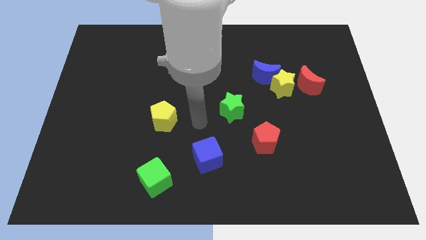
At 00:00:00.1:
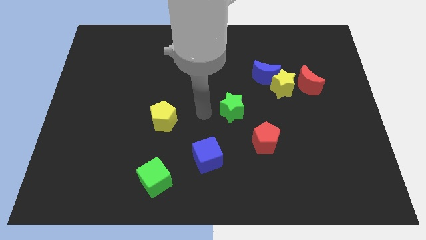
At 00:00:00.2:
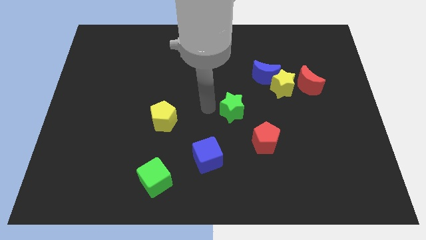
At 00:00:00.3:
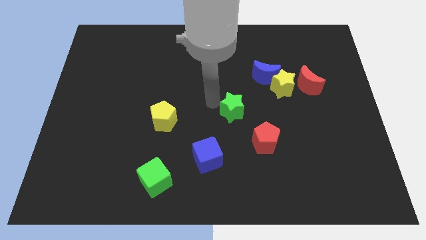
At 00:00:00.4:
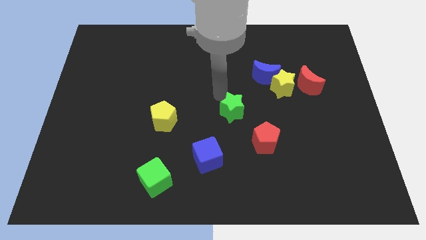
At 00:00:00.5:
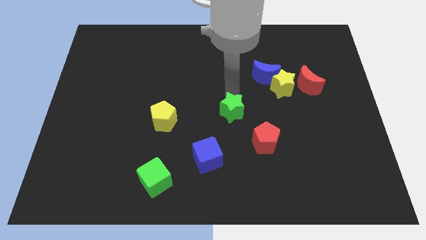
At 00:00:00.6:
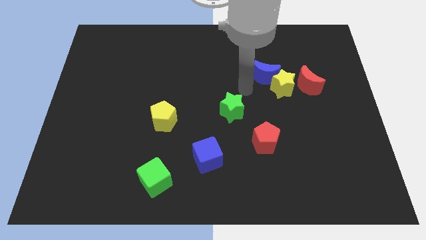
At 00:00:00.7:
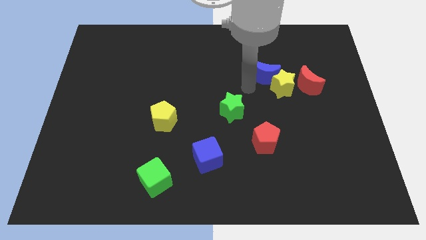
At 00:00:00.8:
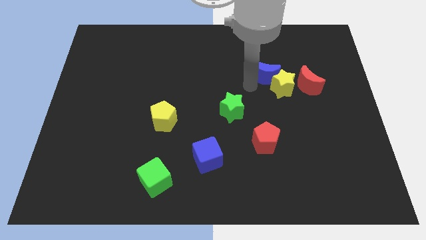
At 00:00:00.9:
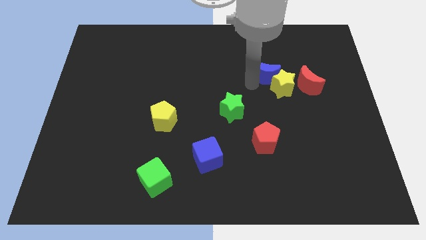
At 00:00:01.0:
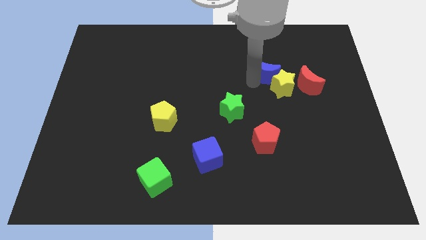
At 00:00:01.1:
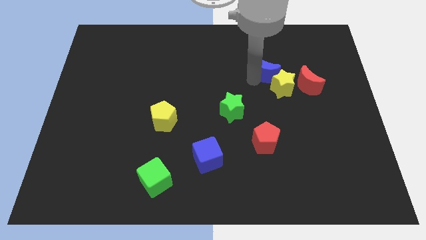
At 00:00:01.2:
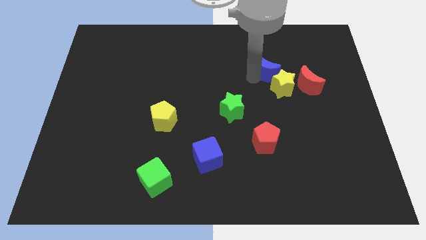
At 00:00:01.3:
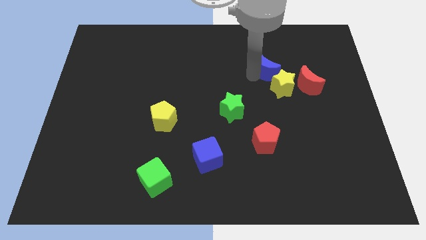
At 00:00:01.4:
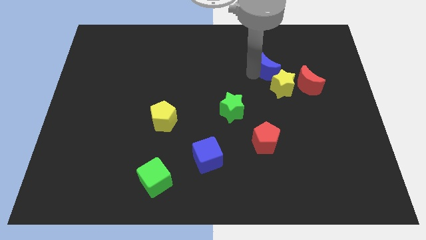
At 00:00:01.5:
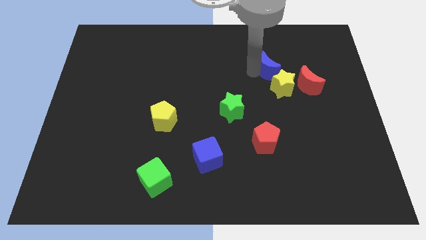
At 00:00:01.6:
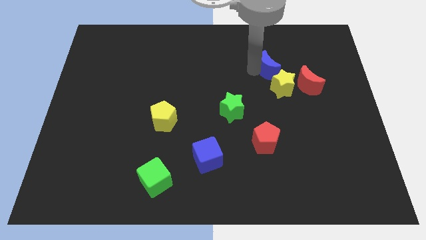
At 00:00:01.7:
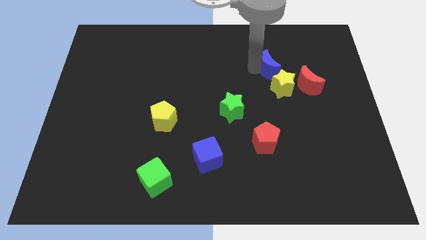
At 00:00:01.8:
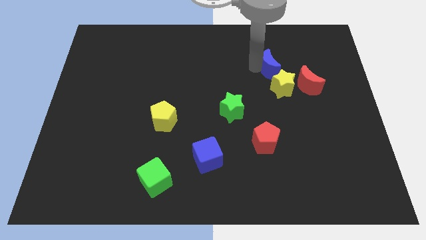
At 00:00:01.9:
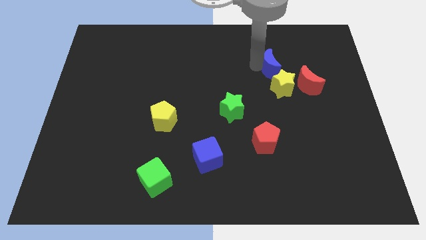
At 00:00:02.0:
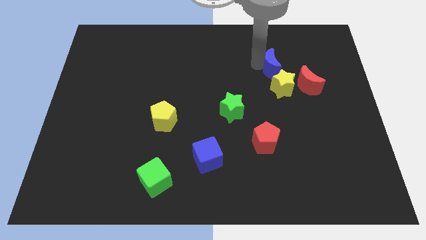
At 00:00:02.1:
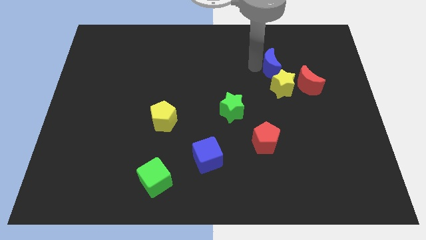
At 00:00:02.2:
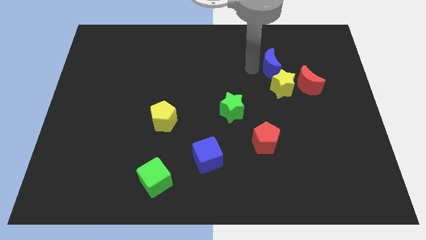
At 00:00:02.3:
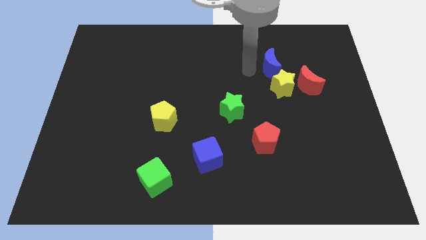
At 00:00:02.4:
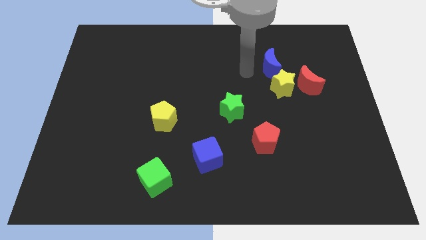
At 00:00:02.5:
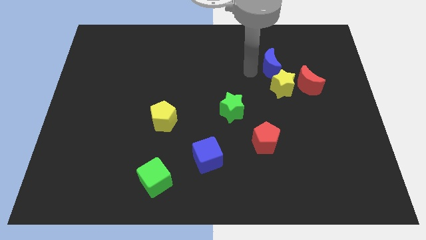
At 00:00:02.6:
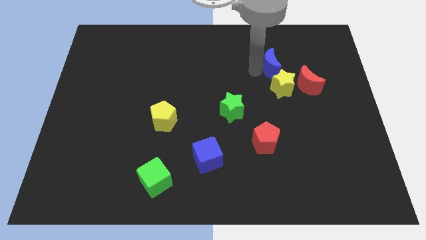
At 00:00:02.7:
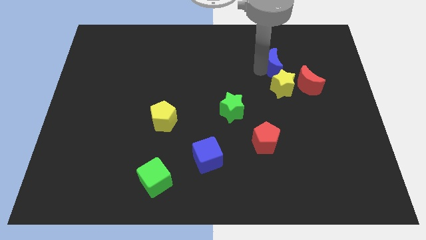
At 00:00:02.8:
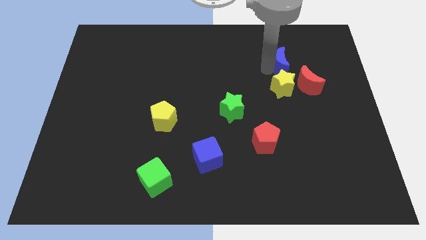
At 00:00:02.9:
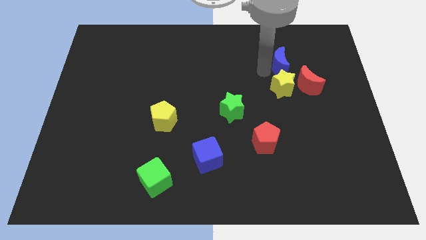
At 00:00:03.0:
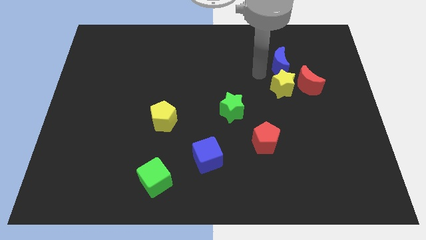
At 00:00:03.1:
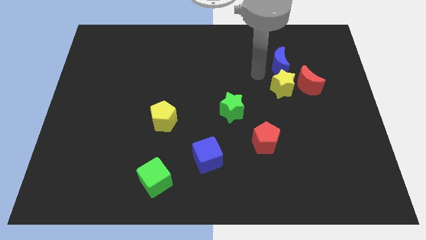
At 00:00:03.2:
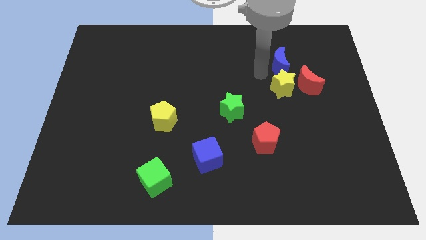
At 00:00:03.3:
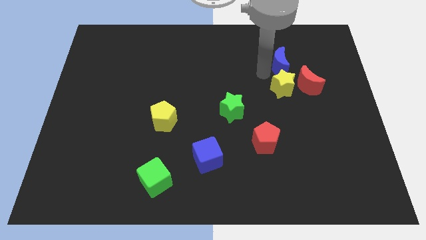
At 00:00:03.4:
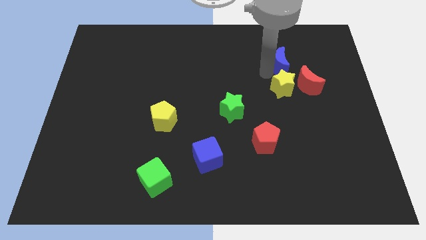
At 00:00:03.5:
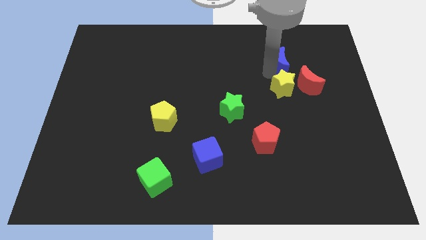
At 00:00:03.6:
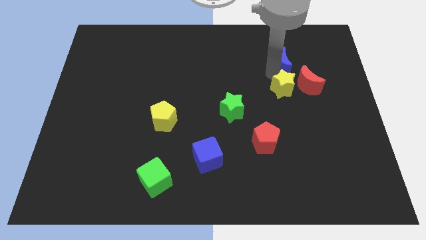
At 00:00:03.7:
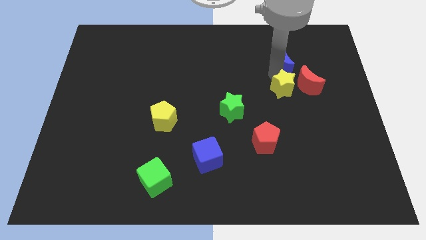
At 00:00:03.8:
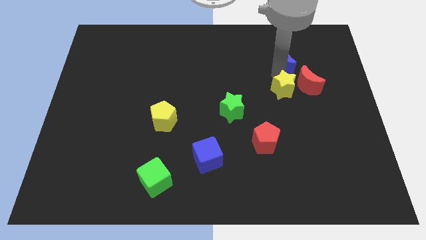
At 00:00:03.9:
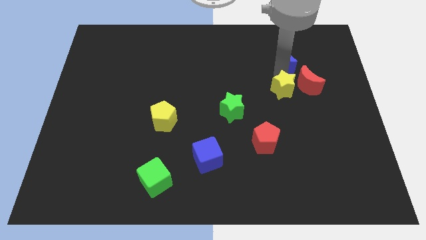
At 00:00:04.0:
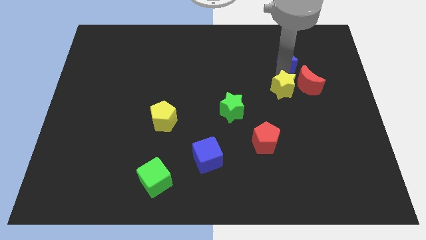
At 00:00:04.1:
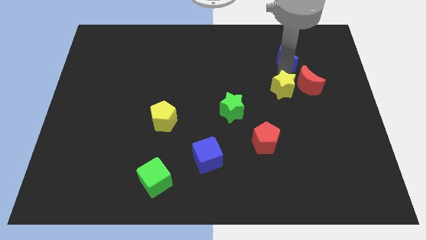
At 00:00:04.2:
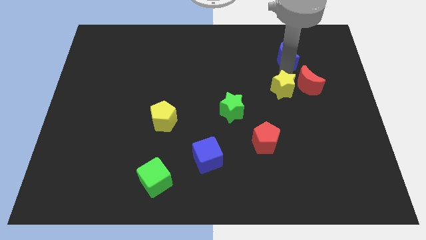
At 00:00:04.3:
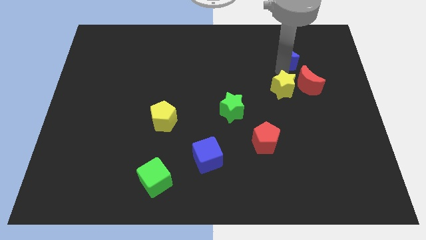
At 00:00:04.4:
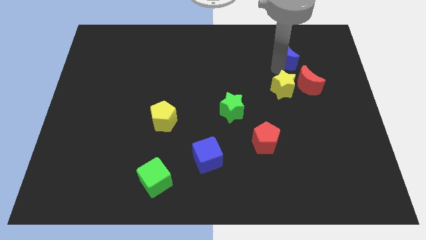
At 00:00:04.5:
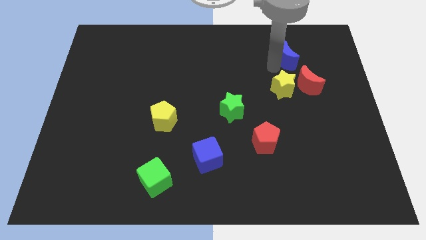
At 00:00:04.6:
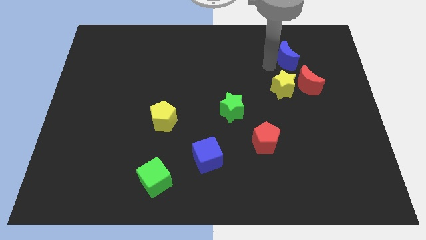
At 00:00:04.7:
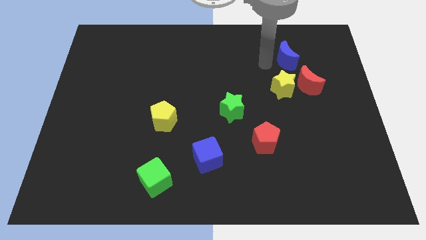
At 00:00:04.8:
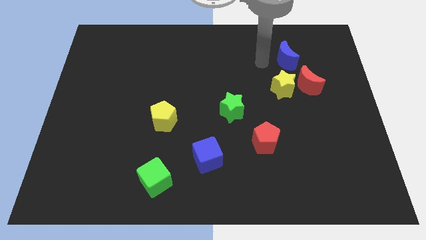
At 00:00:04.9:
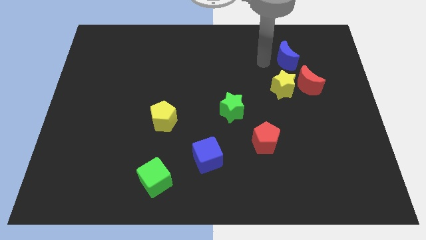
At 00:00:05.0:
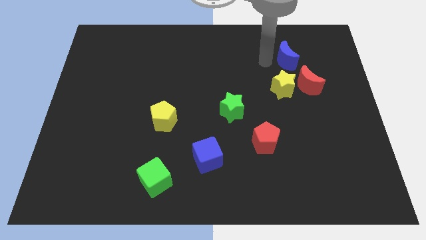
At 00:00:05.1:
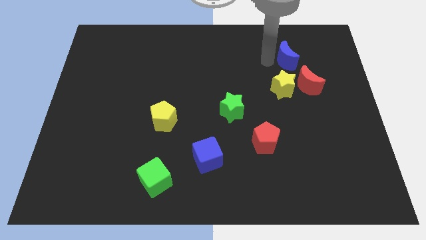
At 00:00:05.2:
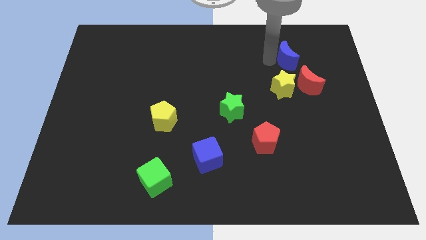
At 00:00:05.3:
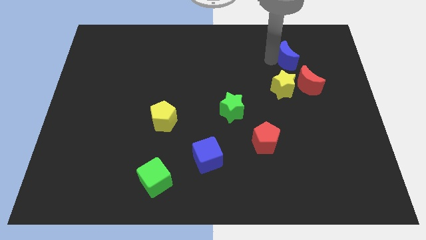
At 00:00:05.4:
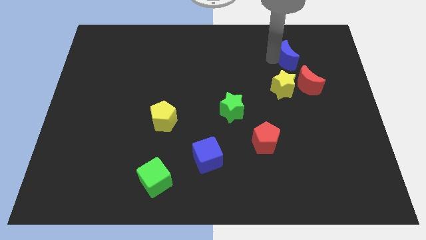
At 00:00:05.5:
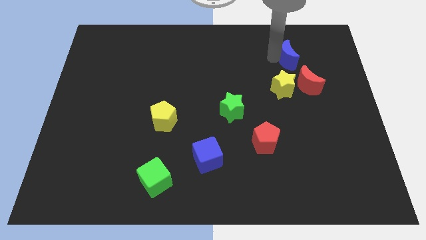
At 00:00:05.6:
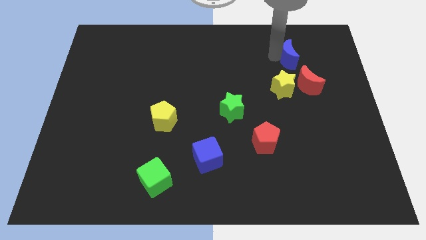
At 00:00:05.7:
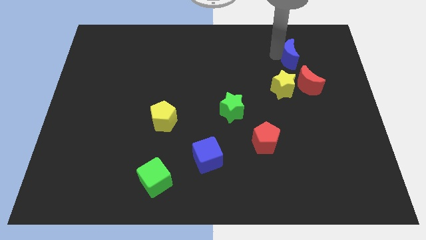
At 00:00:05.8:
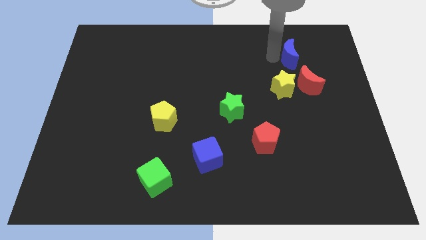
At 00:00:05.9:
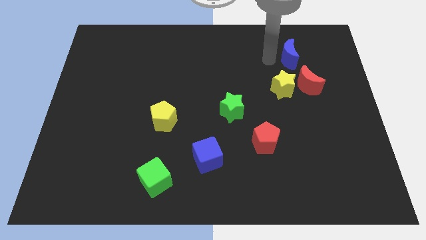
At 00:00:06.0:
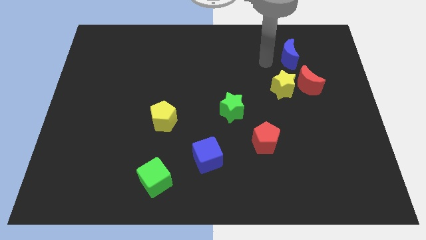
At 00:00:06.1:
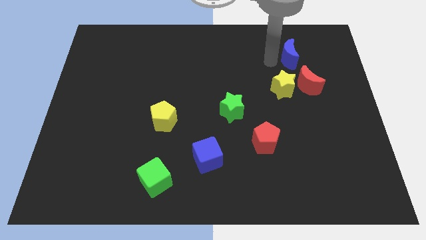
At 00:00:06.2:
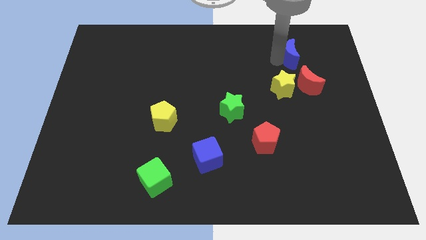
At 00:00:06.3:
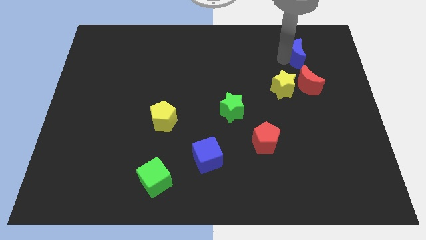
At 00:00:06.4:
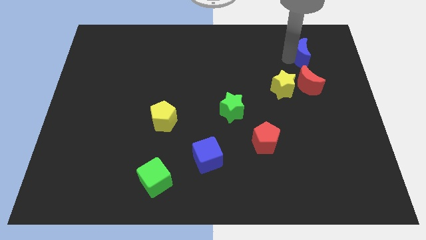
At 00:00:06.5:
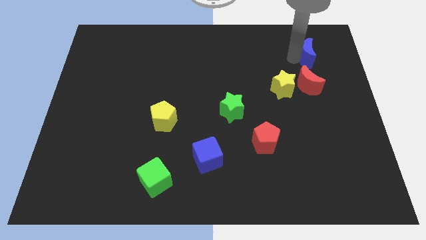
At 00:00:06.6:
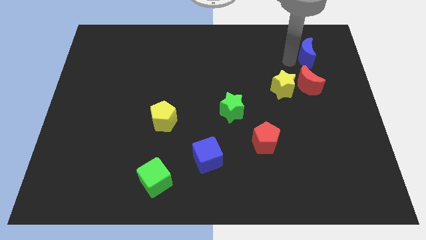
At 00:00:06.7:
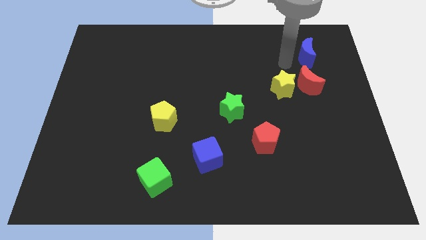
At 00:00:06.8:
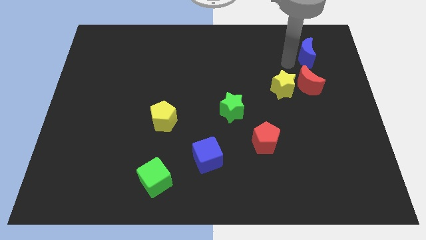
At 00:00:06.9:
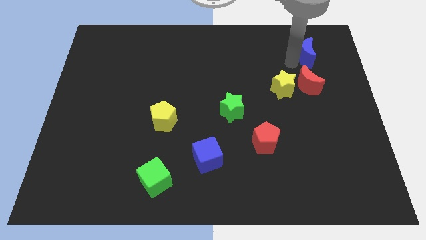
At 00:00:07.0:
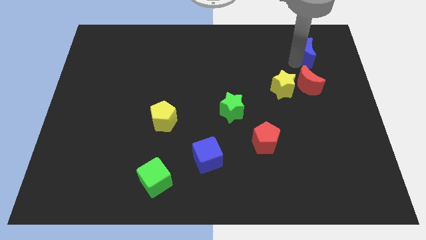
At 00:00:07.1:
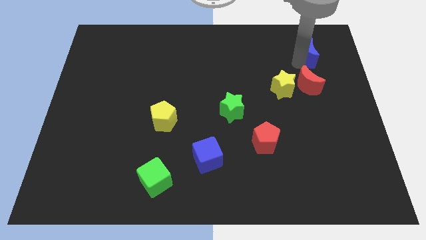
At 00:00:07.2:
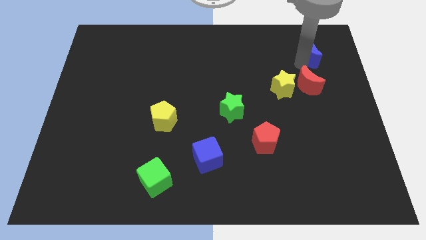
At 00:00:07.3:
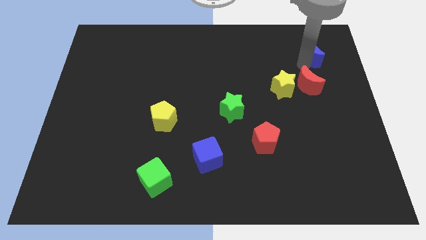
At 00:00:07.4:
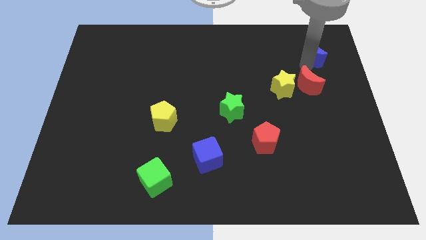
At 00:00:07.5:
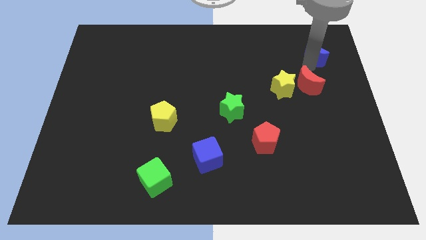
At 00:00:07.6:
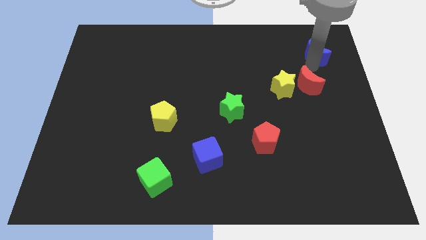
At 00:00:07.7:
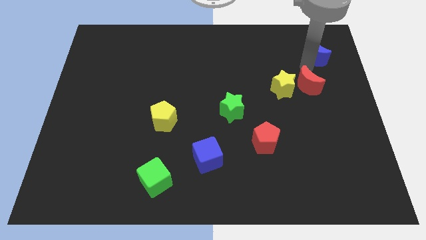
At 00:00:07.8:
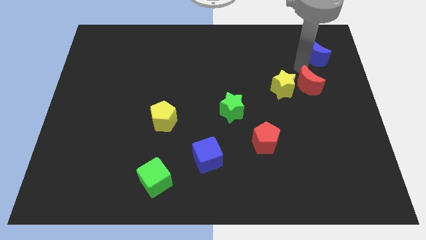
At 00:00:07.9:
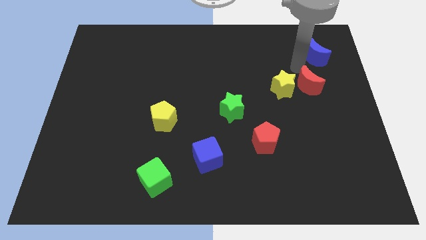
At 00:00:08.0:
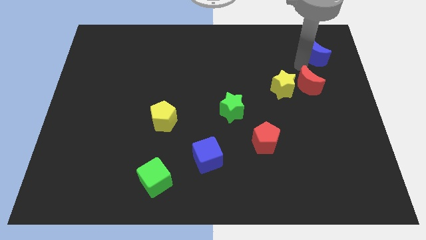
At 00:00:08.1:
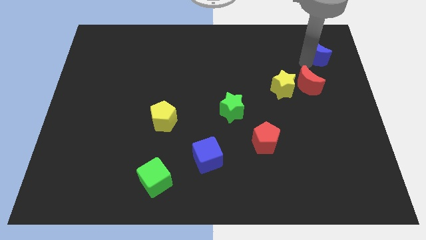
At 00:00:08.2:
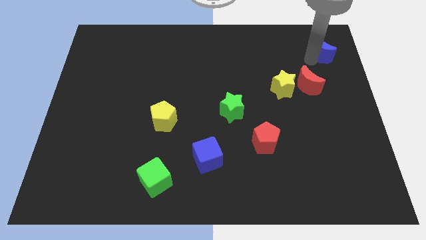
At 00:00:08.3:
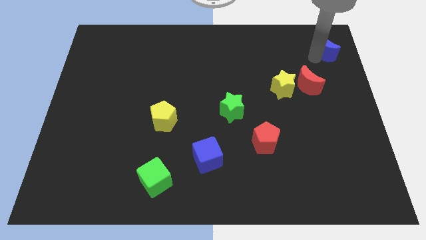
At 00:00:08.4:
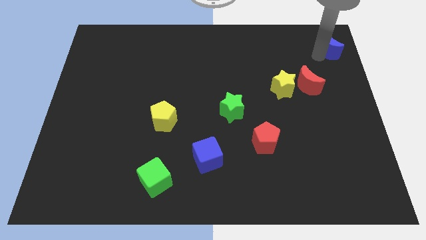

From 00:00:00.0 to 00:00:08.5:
slide the blue moon to the top right
